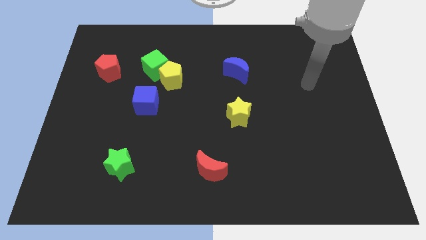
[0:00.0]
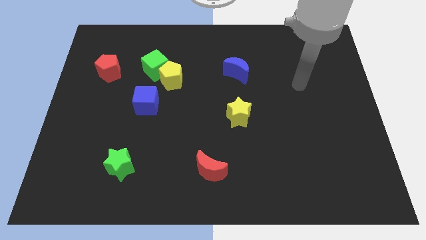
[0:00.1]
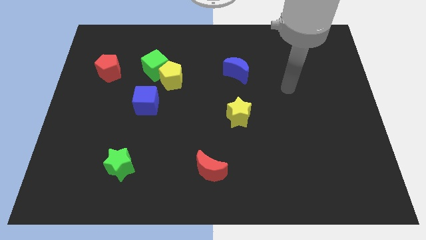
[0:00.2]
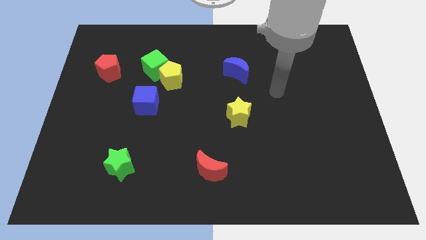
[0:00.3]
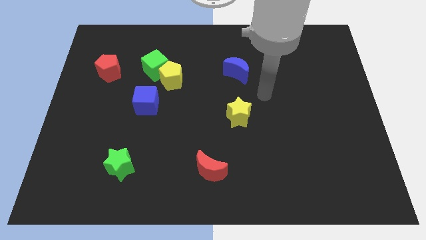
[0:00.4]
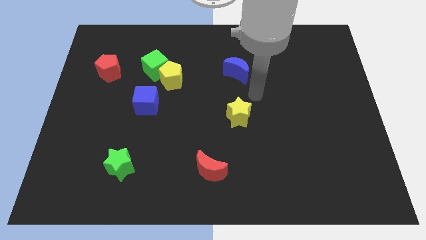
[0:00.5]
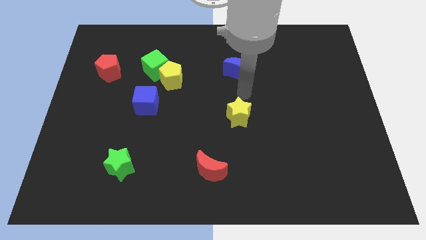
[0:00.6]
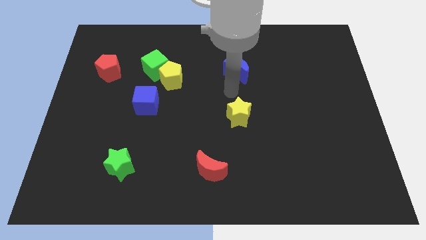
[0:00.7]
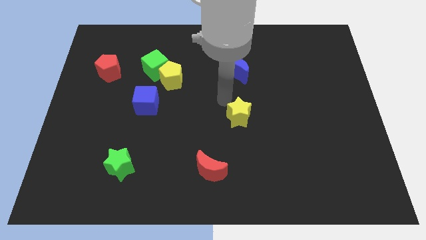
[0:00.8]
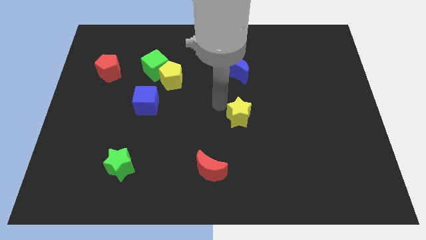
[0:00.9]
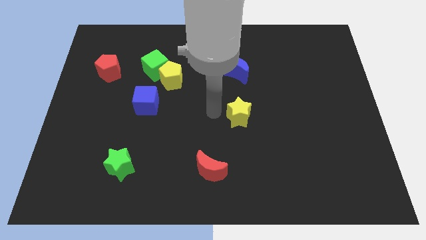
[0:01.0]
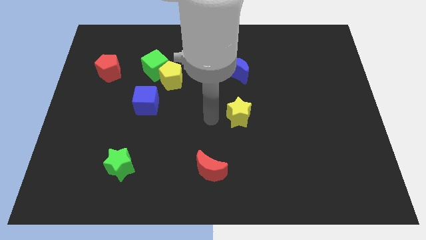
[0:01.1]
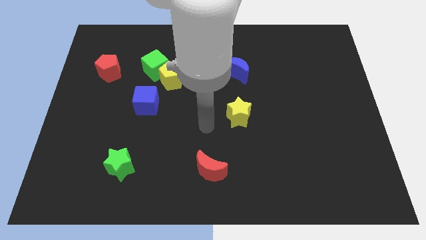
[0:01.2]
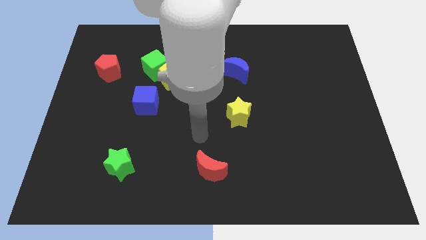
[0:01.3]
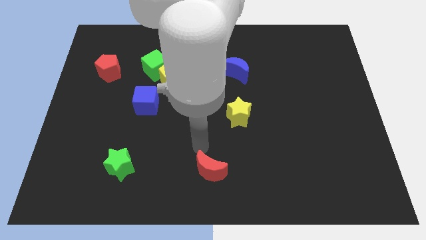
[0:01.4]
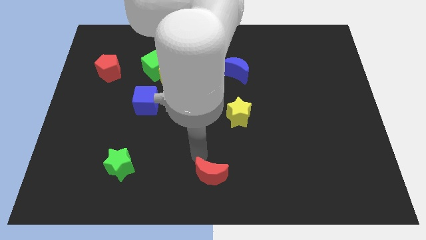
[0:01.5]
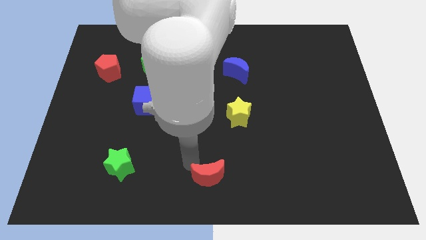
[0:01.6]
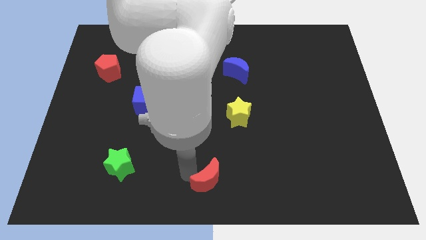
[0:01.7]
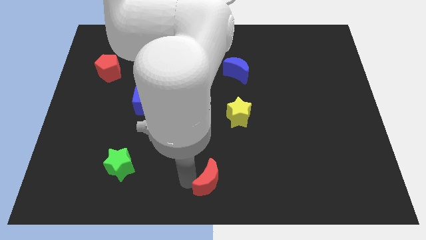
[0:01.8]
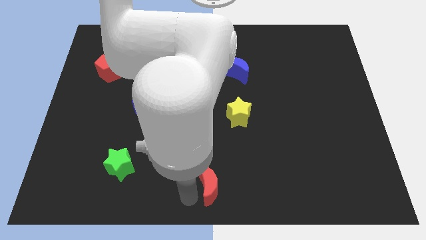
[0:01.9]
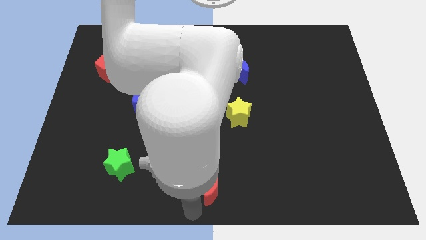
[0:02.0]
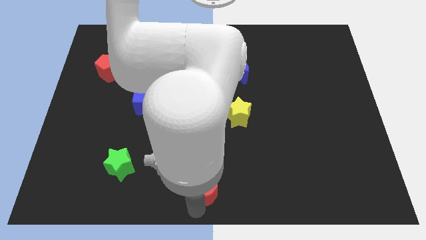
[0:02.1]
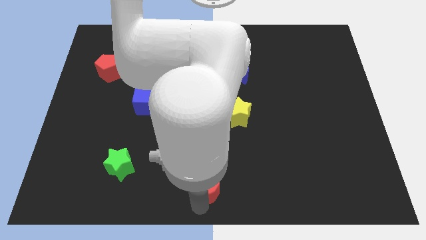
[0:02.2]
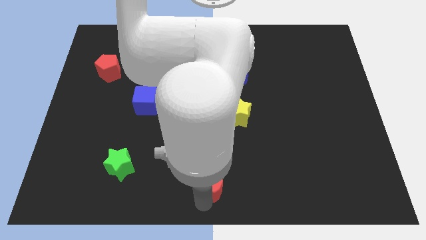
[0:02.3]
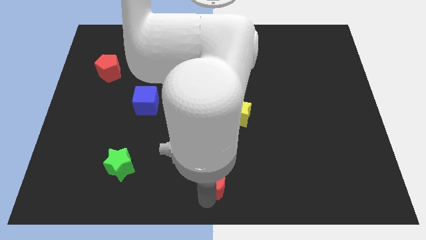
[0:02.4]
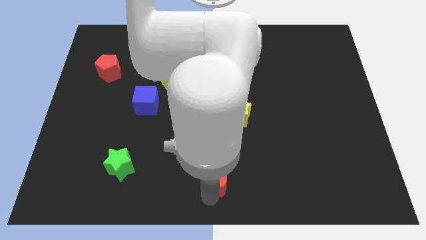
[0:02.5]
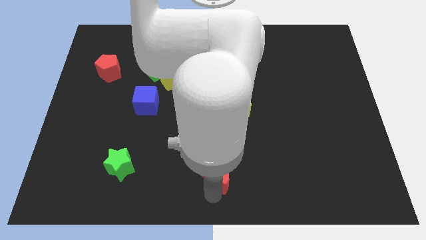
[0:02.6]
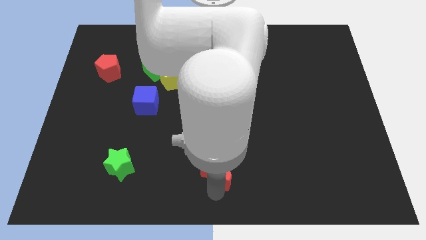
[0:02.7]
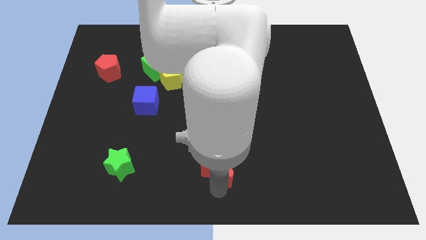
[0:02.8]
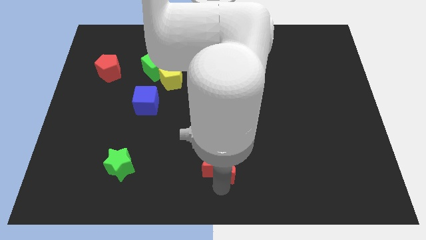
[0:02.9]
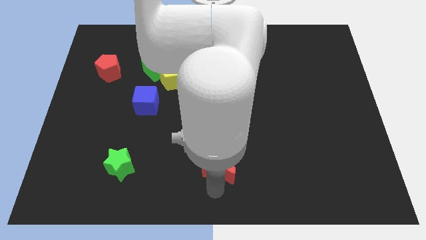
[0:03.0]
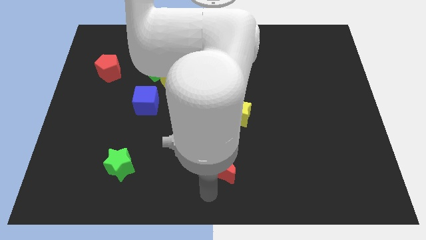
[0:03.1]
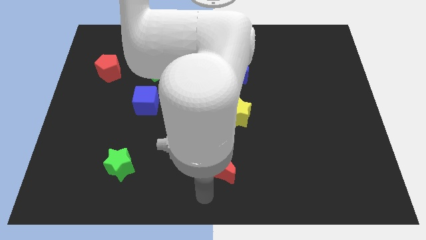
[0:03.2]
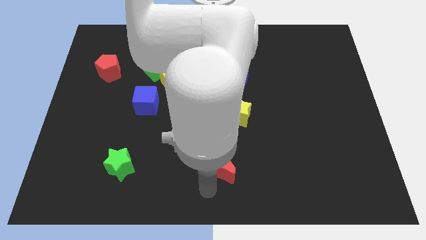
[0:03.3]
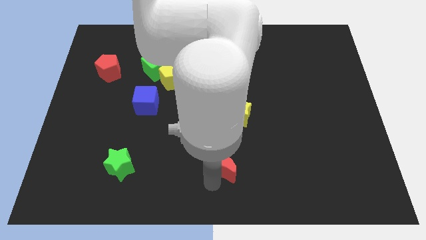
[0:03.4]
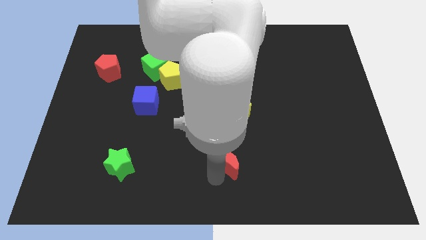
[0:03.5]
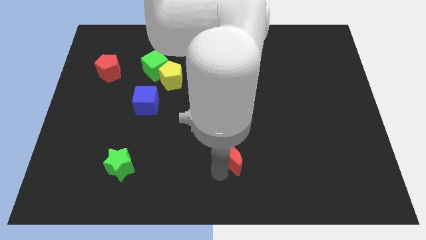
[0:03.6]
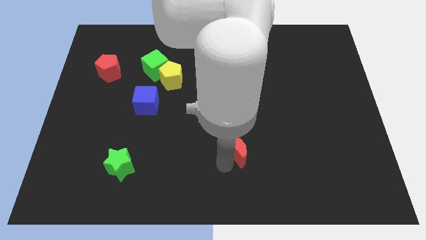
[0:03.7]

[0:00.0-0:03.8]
push the red moon up and then right a little

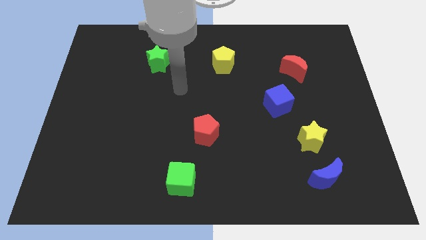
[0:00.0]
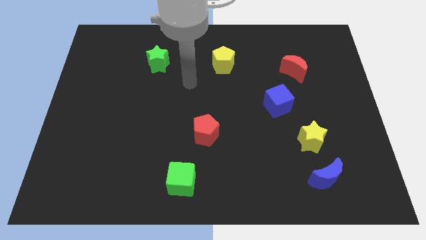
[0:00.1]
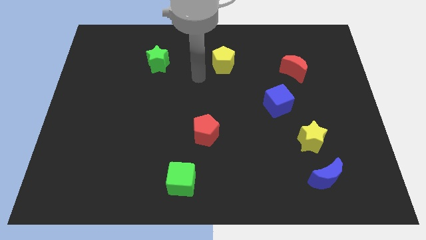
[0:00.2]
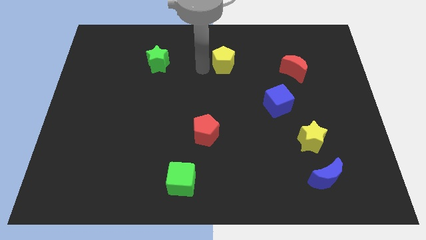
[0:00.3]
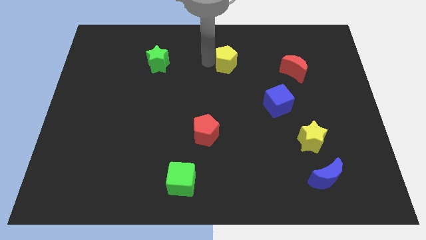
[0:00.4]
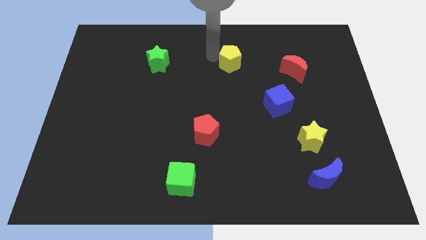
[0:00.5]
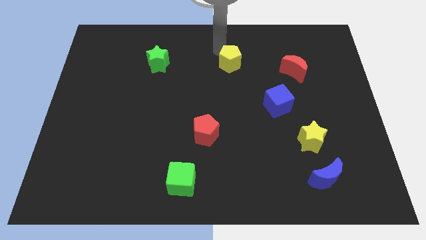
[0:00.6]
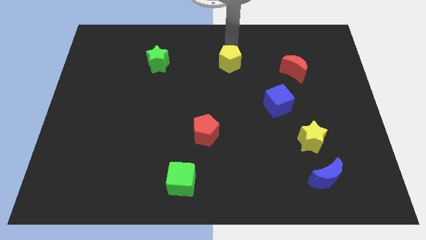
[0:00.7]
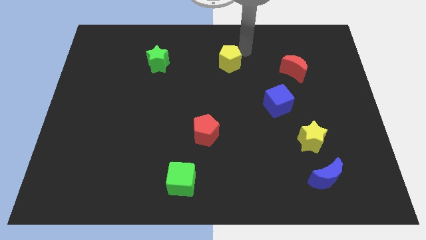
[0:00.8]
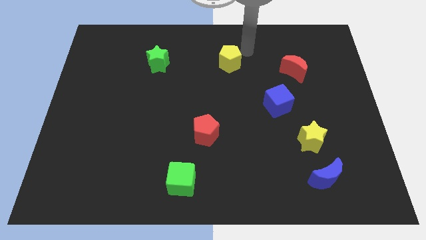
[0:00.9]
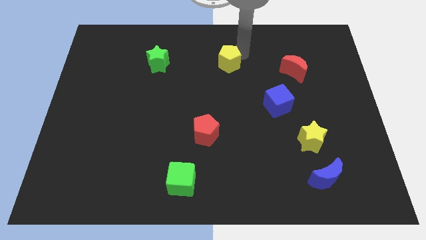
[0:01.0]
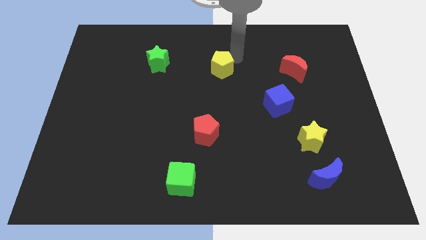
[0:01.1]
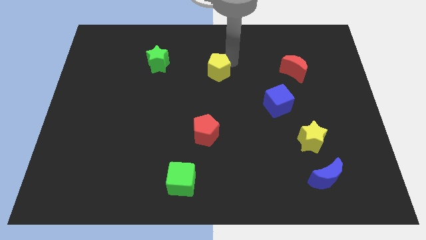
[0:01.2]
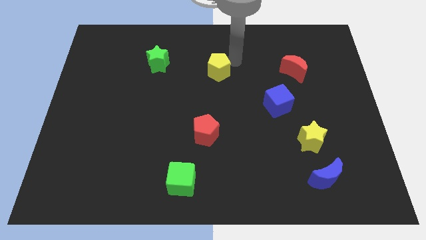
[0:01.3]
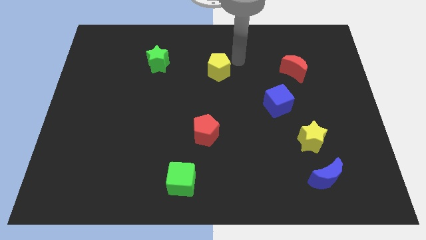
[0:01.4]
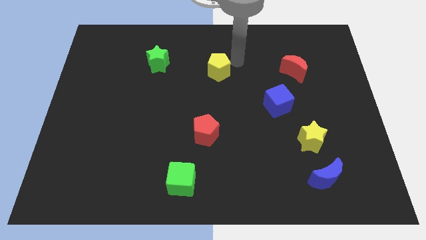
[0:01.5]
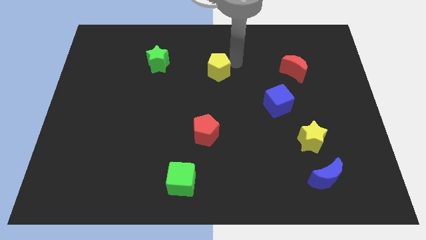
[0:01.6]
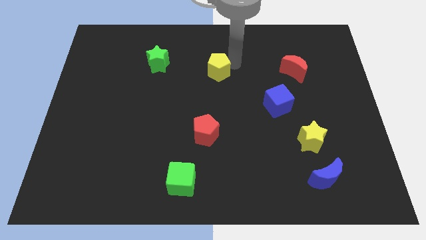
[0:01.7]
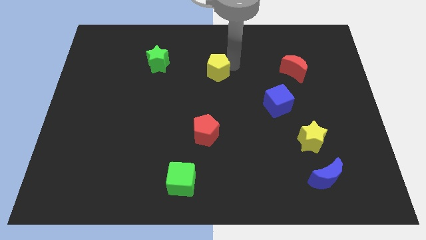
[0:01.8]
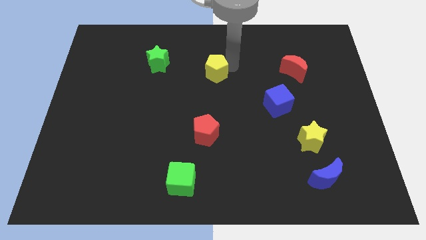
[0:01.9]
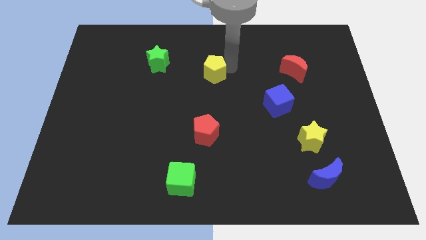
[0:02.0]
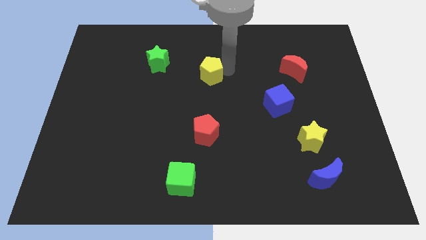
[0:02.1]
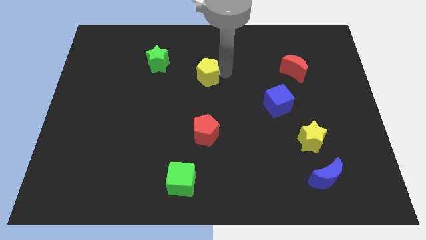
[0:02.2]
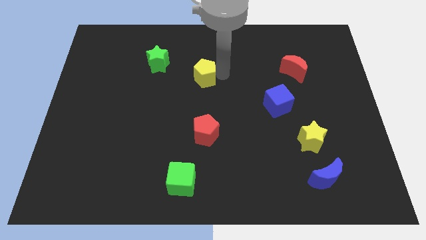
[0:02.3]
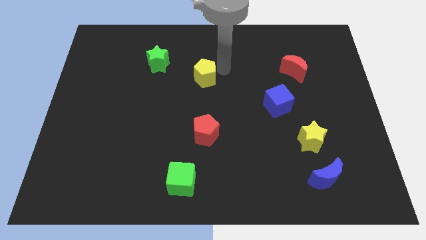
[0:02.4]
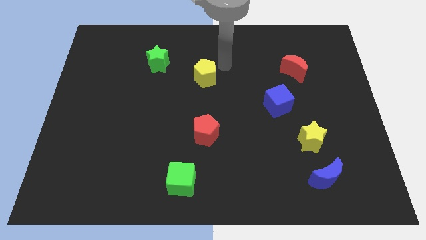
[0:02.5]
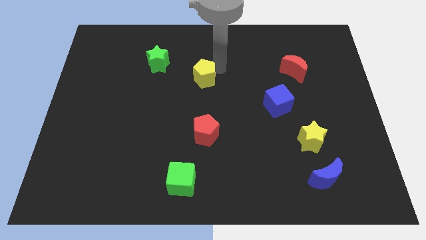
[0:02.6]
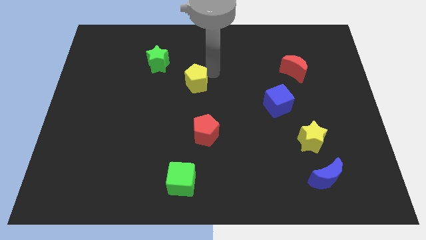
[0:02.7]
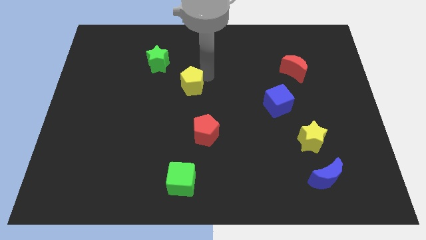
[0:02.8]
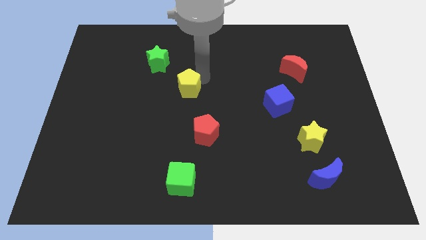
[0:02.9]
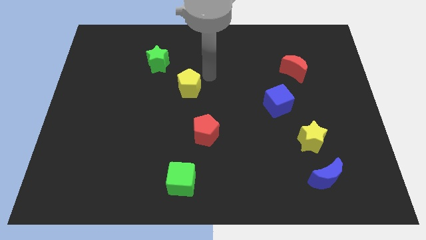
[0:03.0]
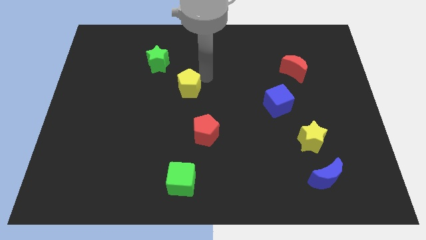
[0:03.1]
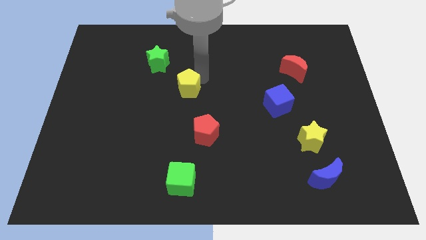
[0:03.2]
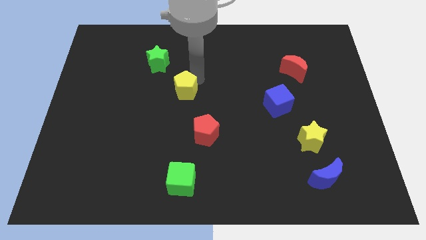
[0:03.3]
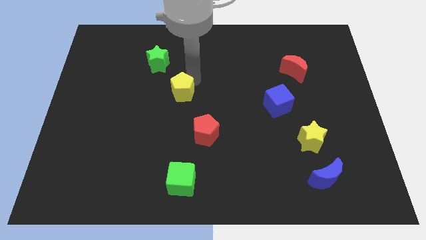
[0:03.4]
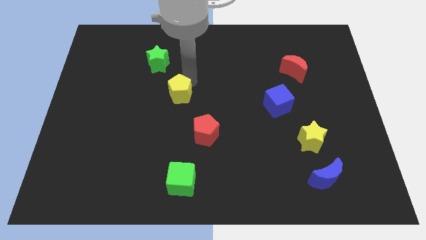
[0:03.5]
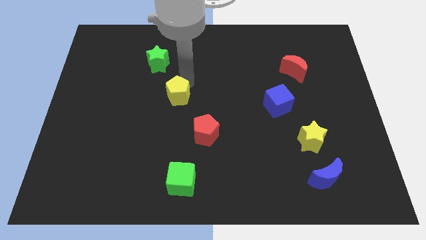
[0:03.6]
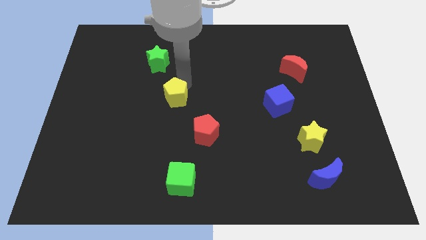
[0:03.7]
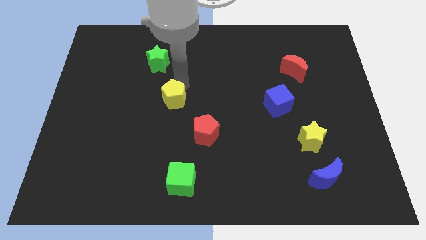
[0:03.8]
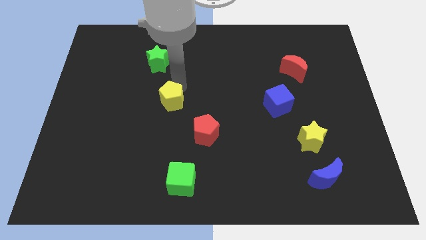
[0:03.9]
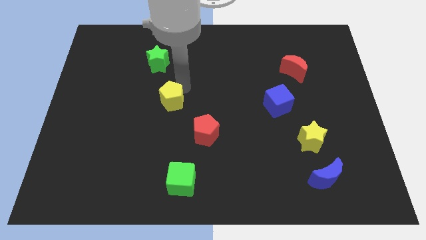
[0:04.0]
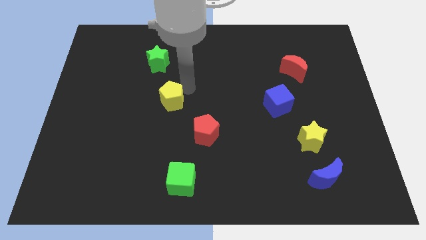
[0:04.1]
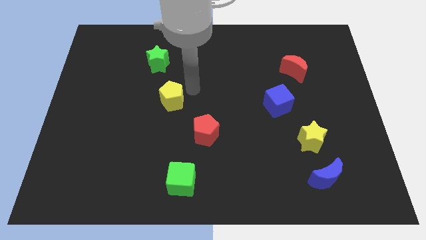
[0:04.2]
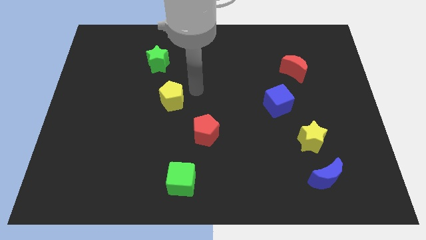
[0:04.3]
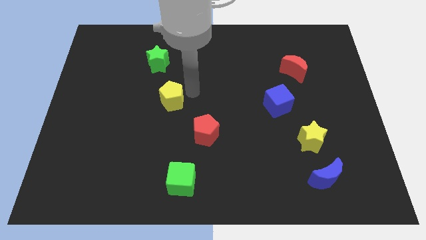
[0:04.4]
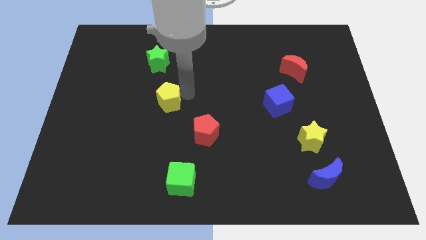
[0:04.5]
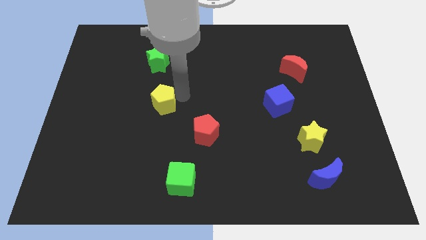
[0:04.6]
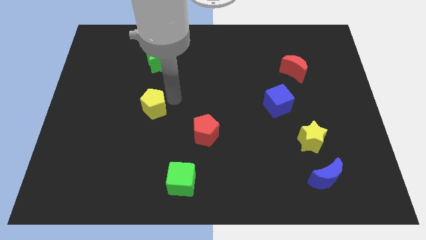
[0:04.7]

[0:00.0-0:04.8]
slide the yellow pentagon downwards and to the left diagonally
